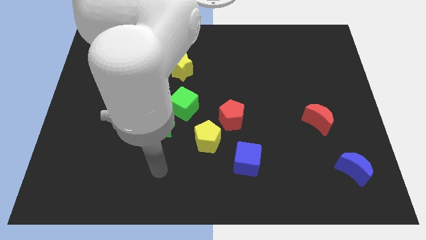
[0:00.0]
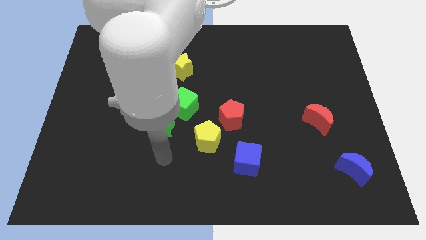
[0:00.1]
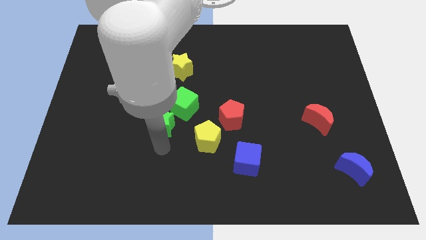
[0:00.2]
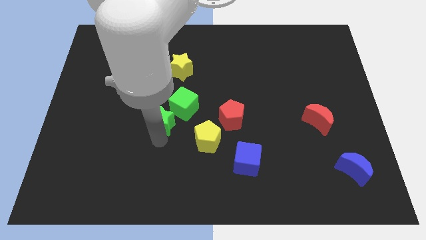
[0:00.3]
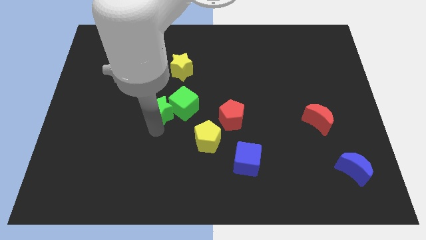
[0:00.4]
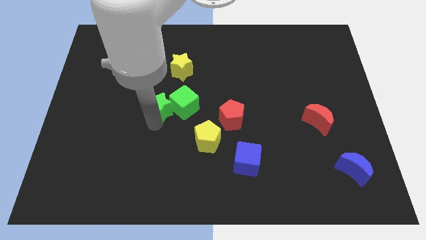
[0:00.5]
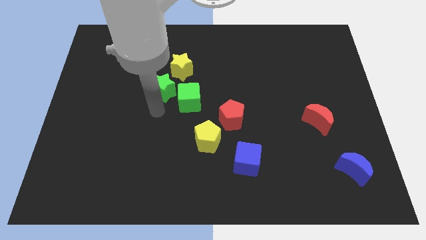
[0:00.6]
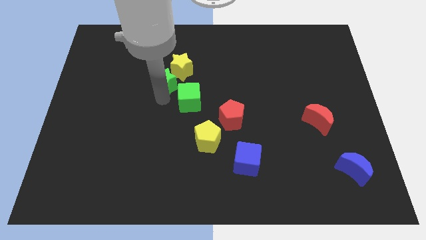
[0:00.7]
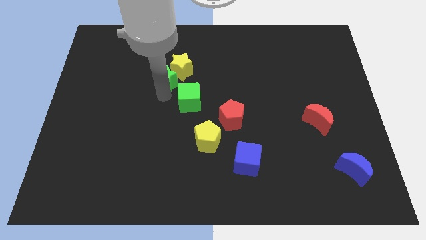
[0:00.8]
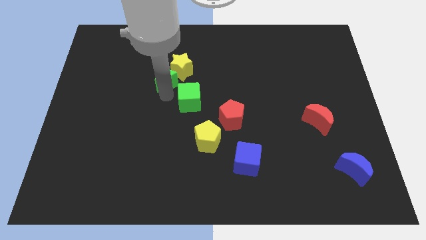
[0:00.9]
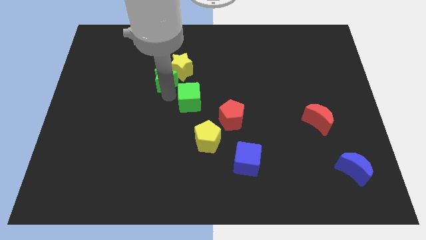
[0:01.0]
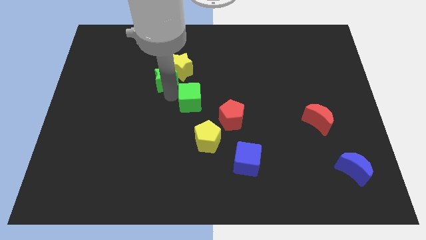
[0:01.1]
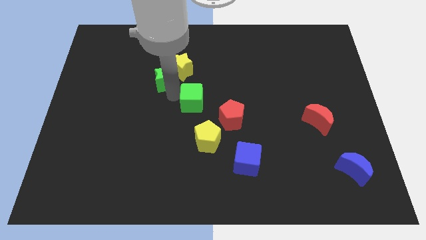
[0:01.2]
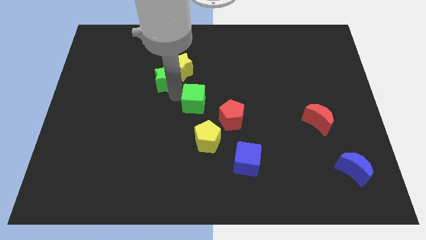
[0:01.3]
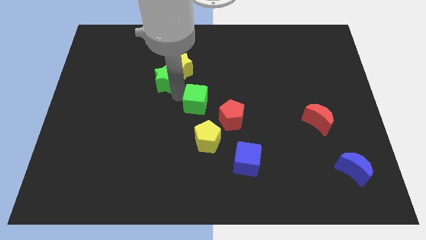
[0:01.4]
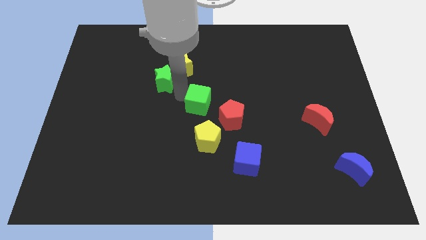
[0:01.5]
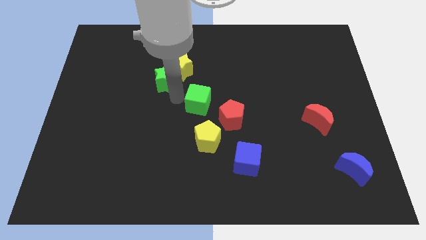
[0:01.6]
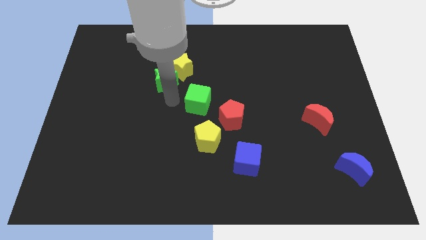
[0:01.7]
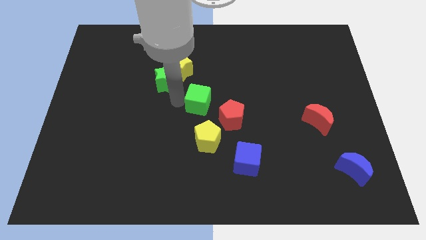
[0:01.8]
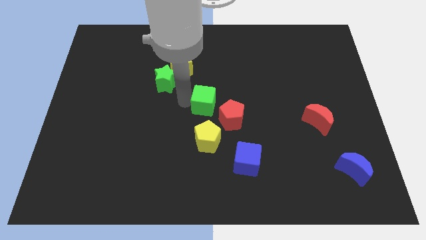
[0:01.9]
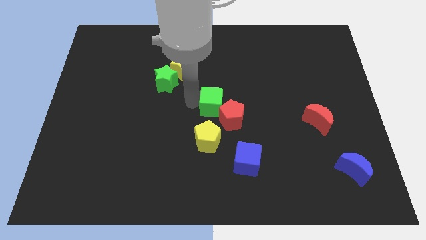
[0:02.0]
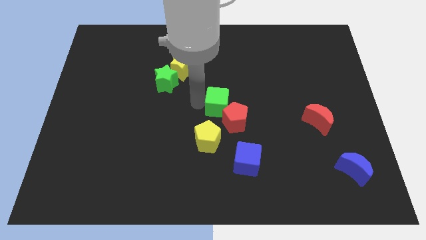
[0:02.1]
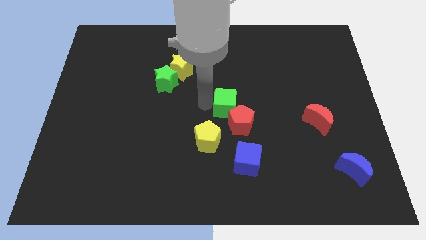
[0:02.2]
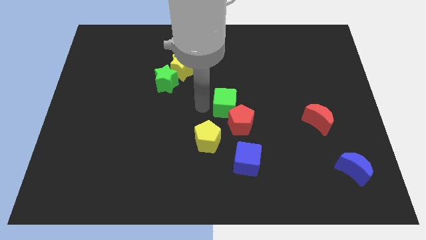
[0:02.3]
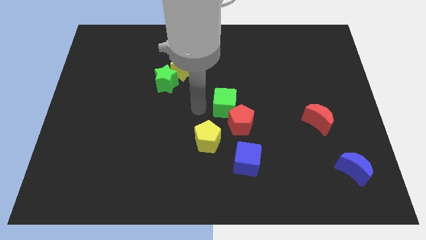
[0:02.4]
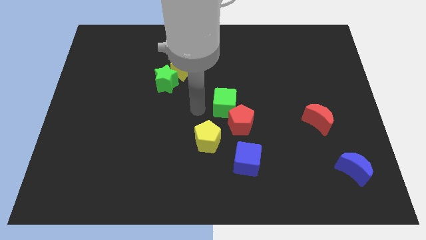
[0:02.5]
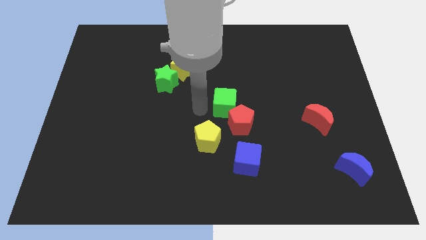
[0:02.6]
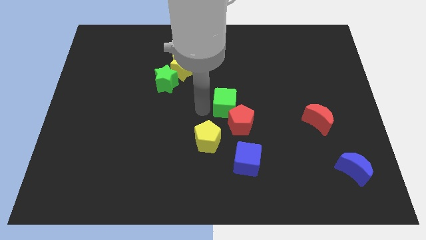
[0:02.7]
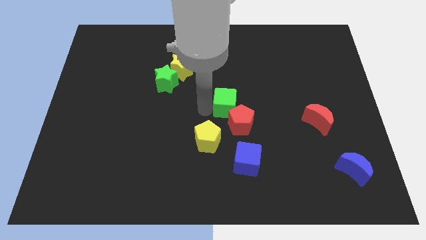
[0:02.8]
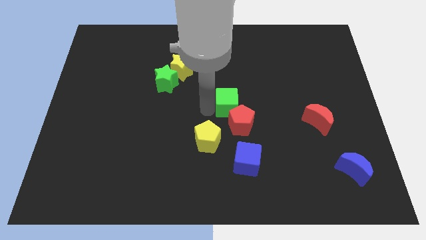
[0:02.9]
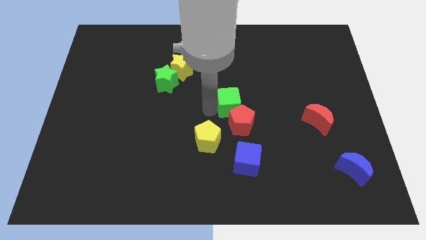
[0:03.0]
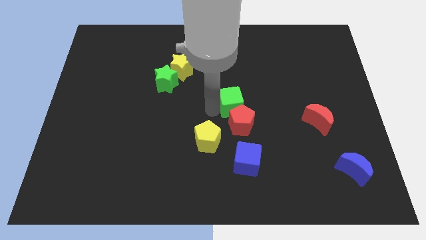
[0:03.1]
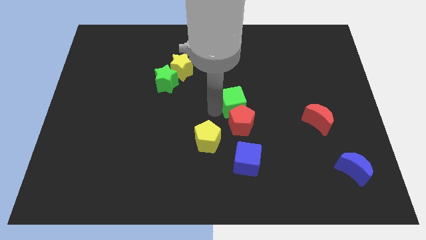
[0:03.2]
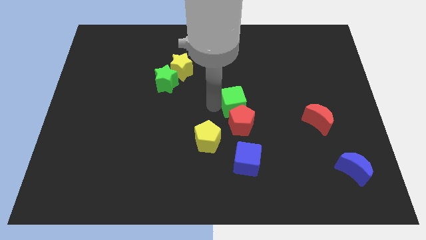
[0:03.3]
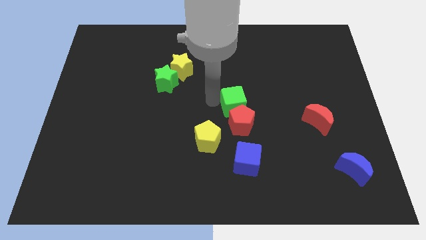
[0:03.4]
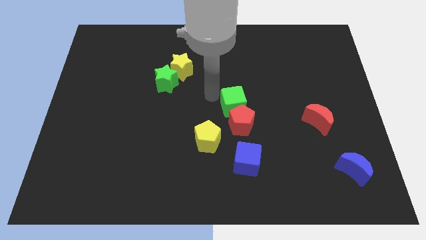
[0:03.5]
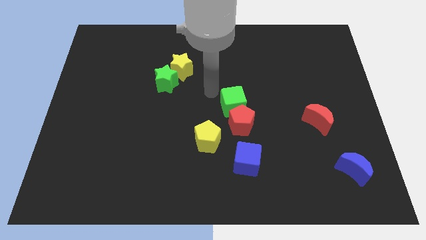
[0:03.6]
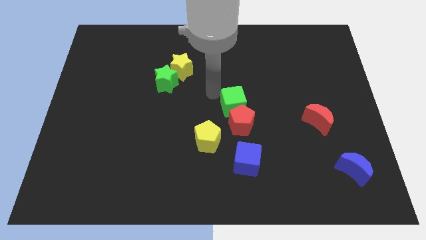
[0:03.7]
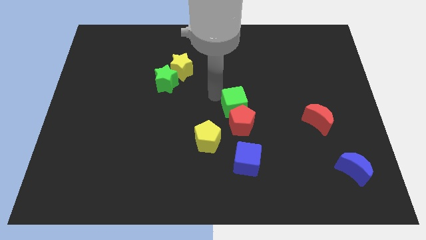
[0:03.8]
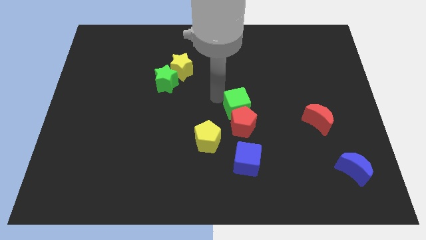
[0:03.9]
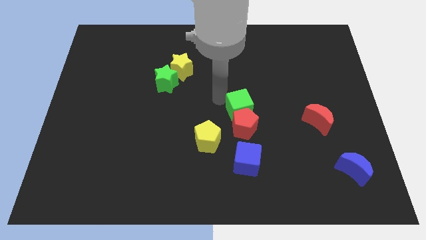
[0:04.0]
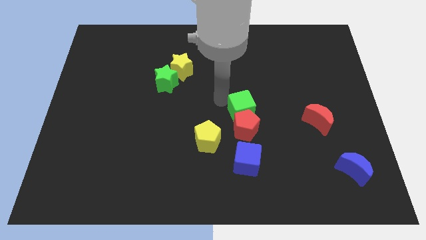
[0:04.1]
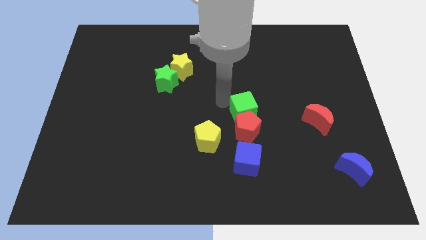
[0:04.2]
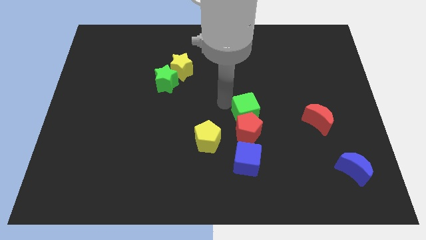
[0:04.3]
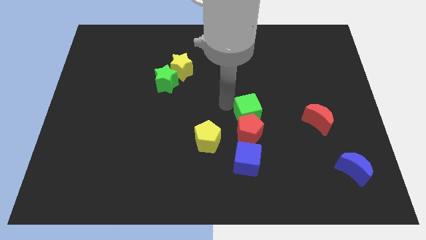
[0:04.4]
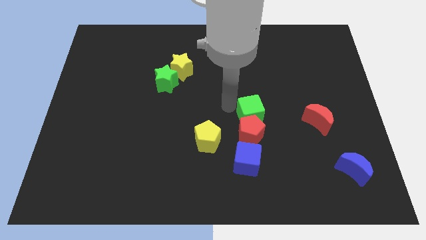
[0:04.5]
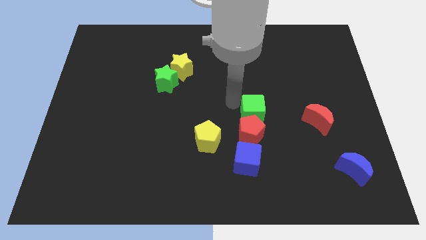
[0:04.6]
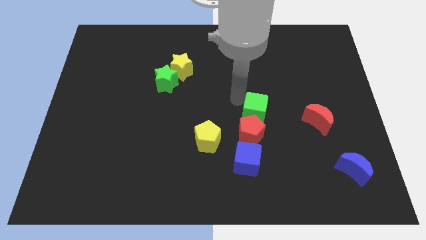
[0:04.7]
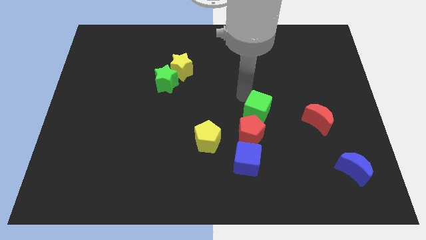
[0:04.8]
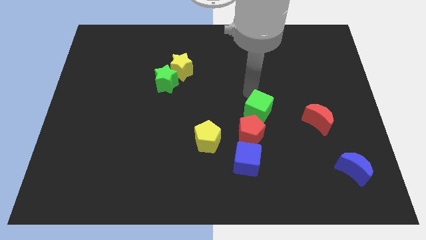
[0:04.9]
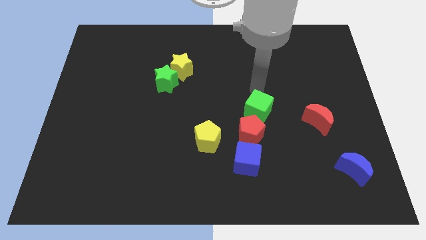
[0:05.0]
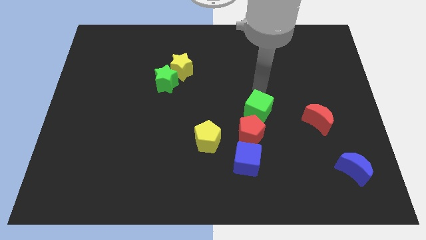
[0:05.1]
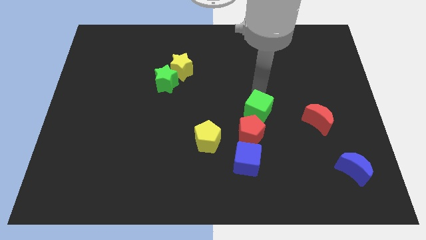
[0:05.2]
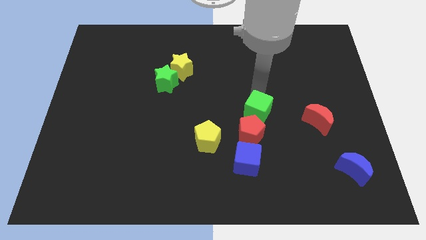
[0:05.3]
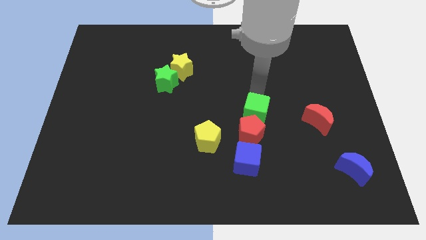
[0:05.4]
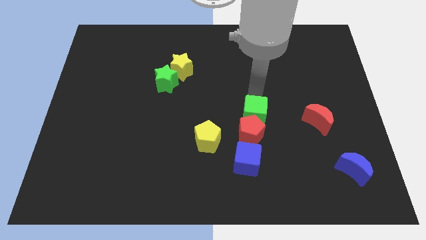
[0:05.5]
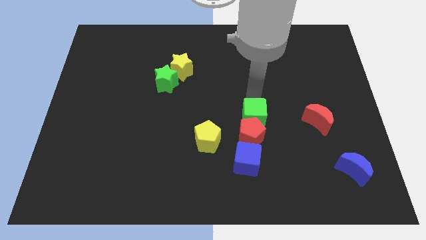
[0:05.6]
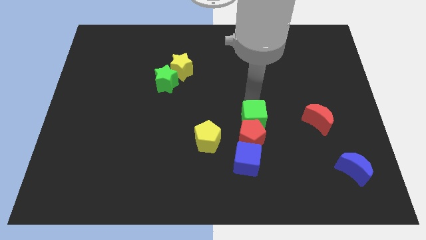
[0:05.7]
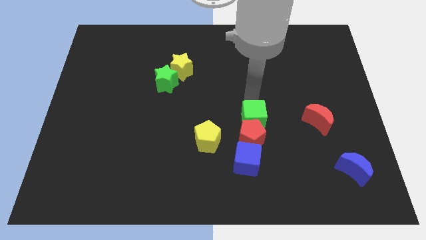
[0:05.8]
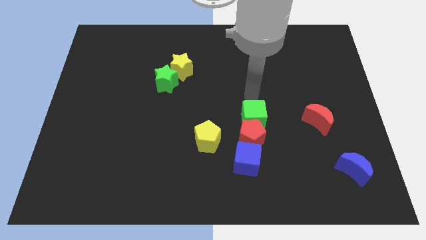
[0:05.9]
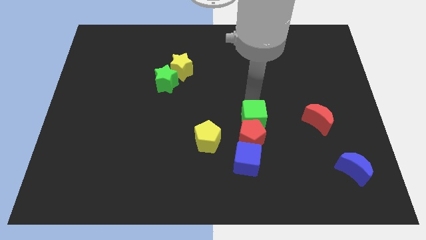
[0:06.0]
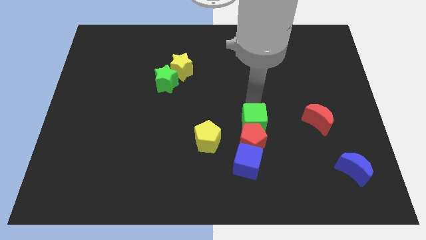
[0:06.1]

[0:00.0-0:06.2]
push the green cube right of the yellow pentagon

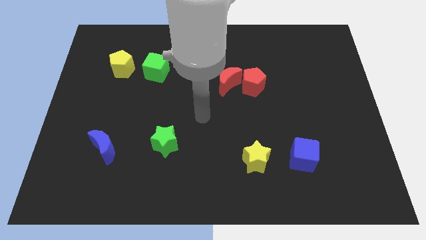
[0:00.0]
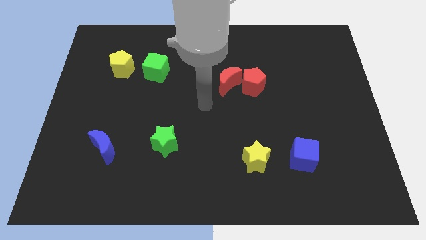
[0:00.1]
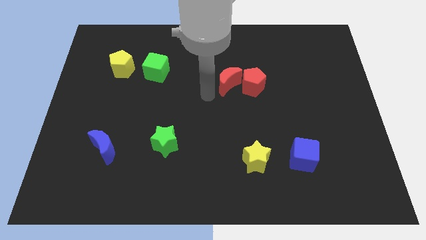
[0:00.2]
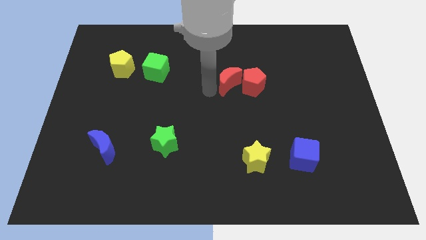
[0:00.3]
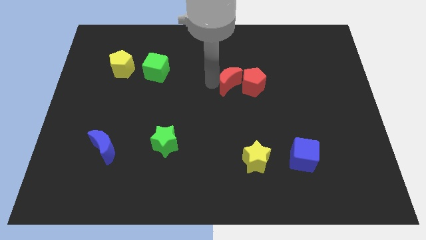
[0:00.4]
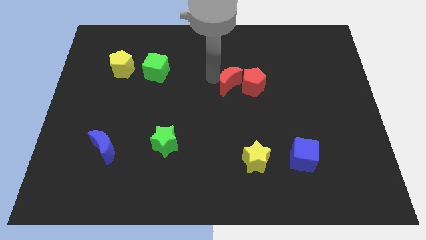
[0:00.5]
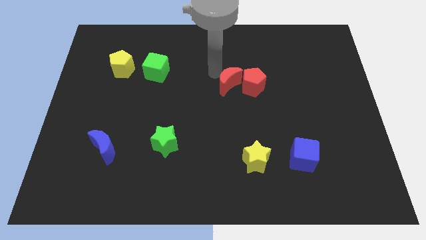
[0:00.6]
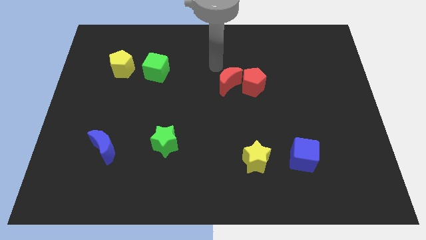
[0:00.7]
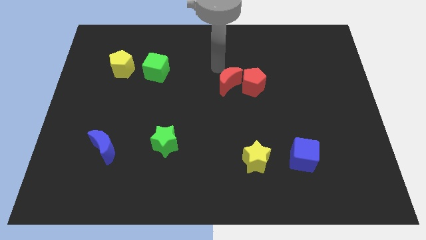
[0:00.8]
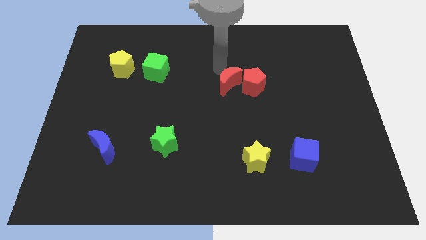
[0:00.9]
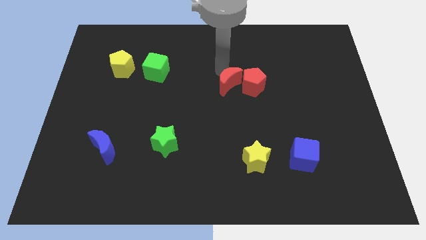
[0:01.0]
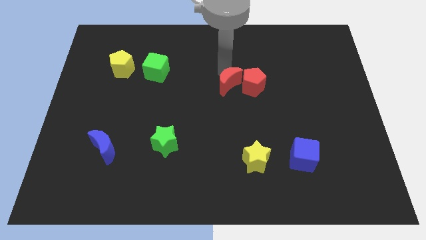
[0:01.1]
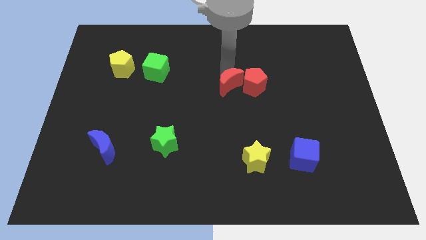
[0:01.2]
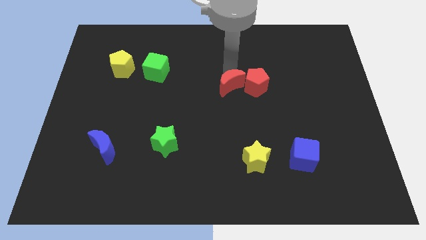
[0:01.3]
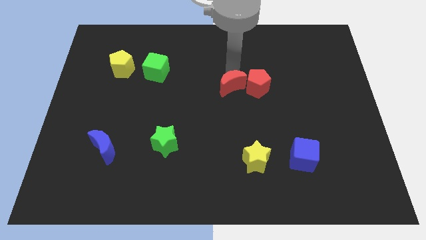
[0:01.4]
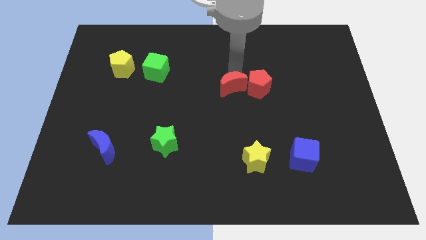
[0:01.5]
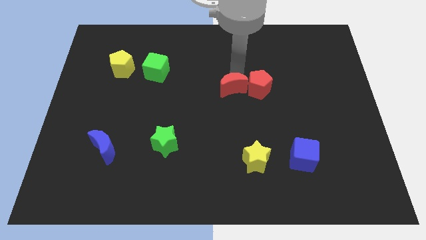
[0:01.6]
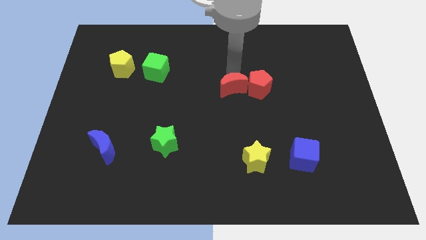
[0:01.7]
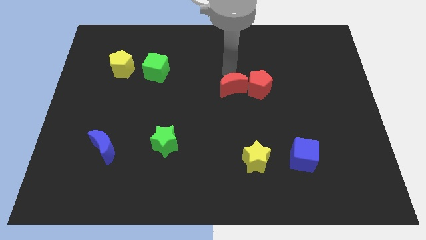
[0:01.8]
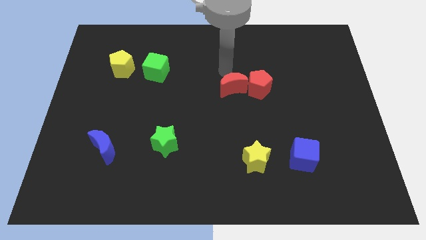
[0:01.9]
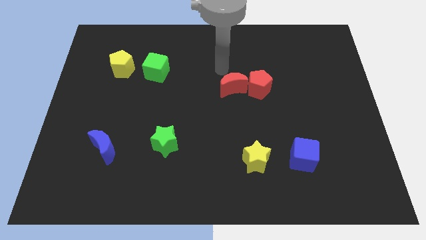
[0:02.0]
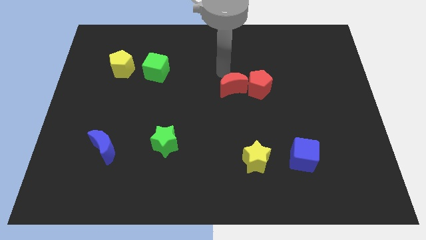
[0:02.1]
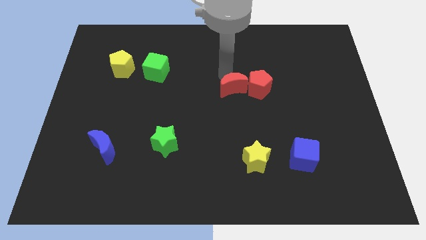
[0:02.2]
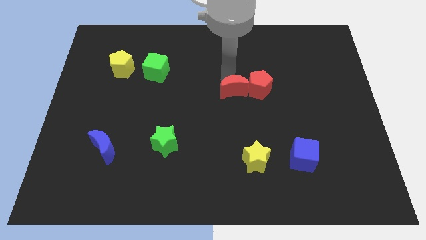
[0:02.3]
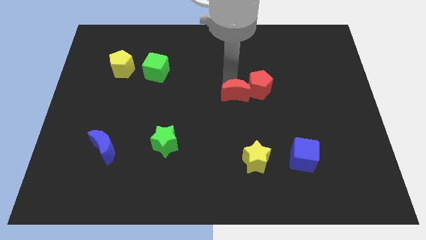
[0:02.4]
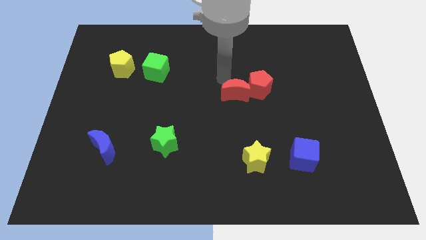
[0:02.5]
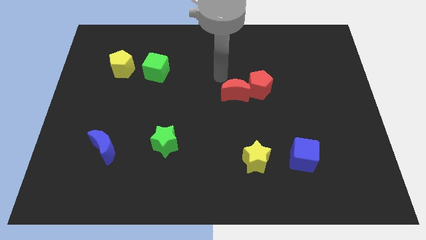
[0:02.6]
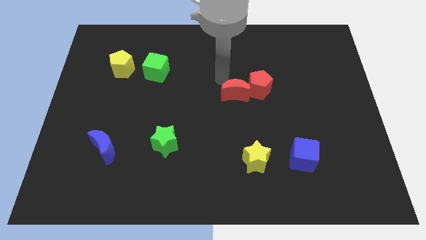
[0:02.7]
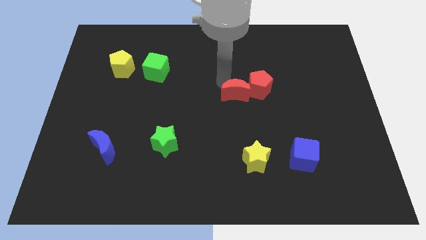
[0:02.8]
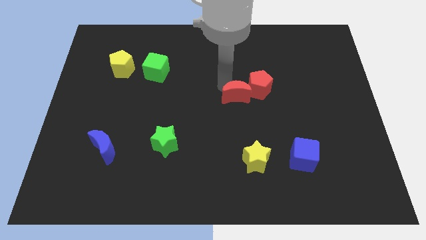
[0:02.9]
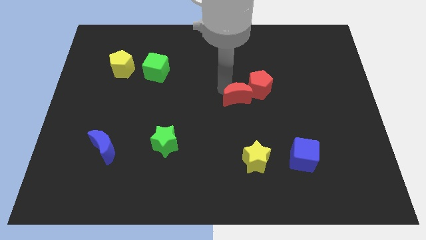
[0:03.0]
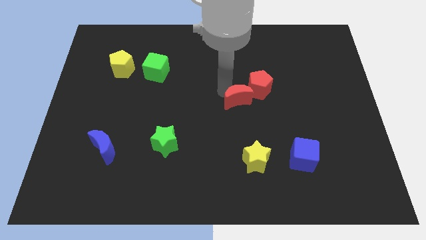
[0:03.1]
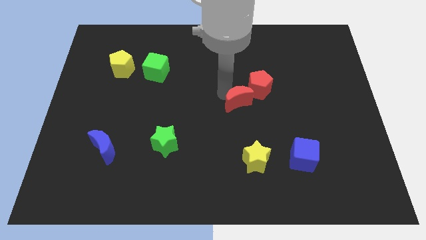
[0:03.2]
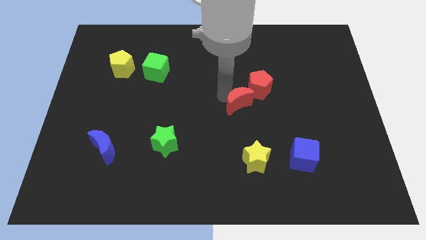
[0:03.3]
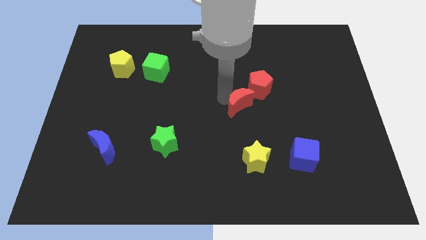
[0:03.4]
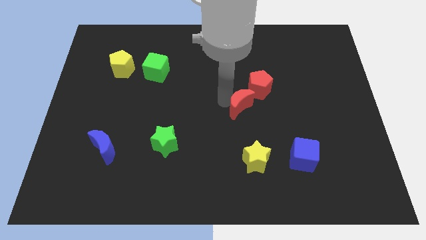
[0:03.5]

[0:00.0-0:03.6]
push the red moon below the red pentagon
